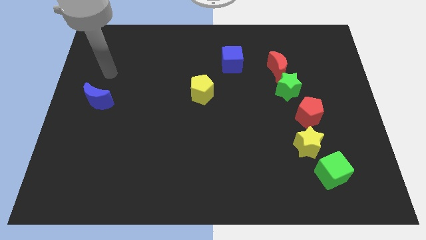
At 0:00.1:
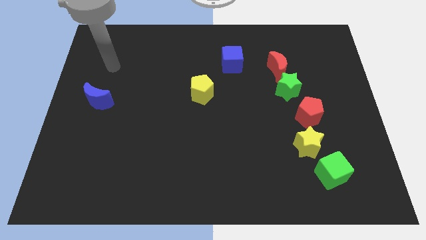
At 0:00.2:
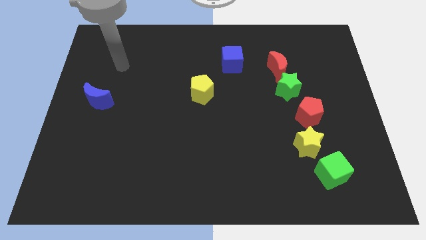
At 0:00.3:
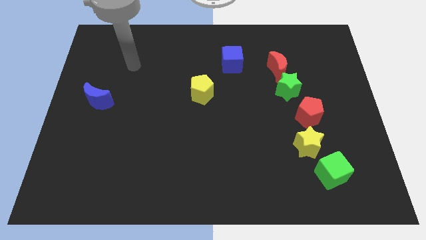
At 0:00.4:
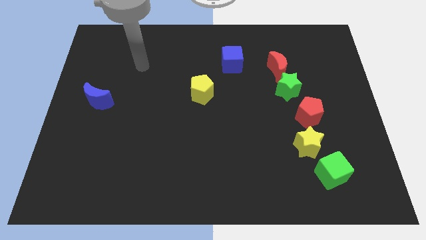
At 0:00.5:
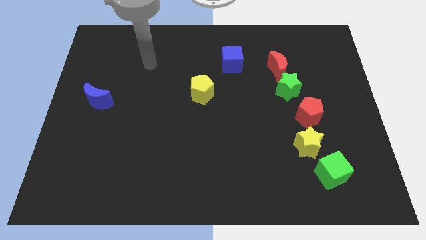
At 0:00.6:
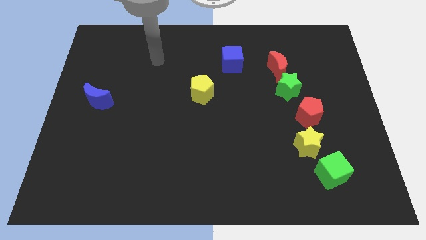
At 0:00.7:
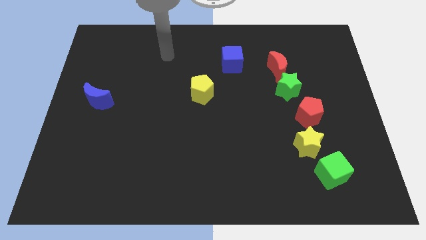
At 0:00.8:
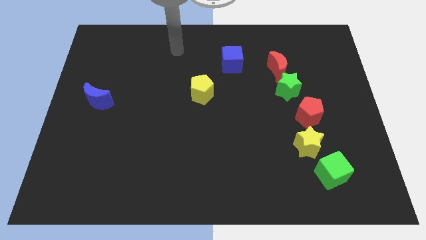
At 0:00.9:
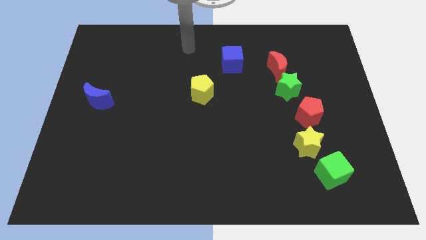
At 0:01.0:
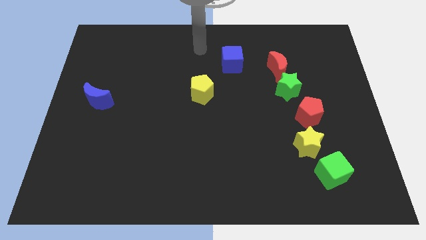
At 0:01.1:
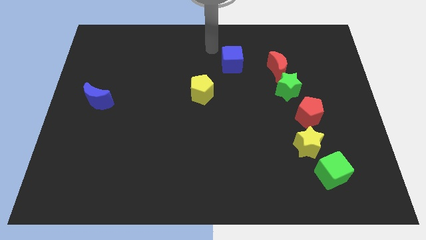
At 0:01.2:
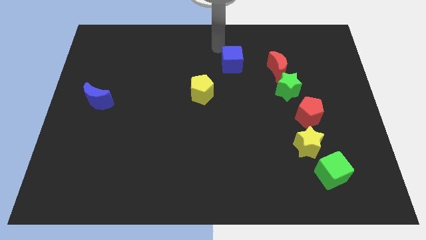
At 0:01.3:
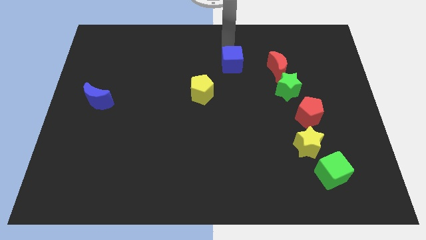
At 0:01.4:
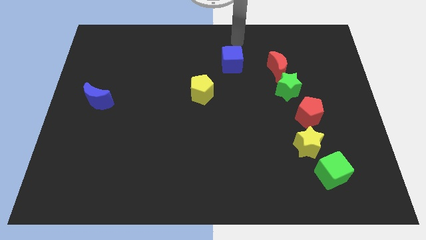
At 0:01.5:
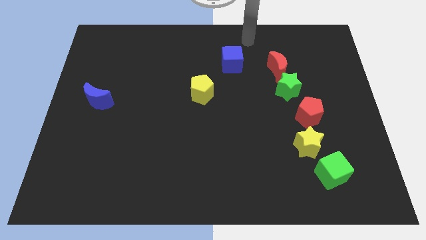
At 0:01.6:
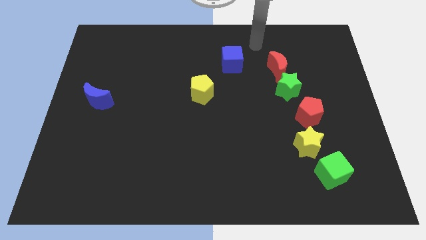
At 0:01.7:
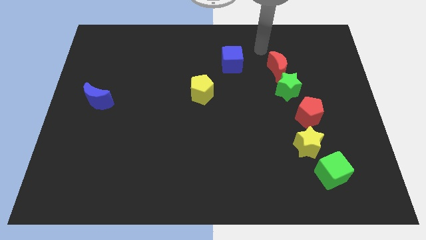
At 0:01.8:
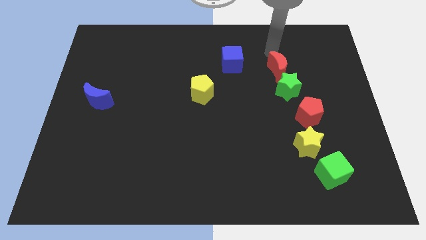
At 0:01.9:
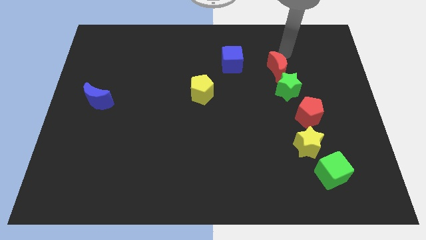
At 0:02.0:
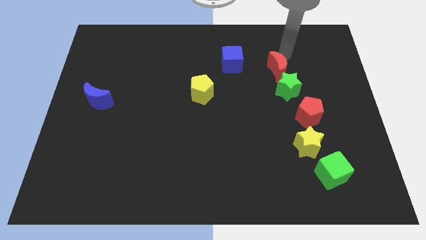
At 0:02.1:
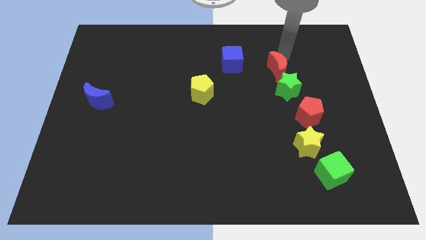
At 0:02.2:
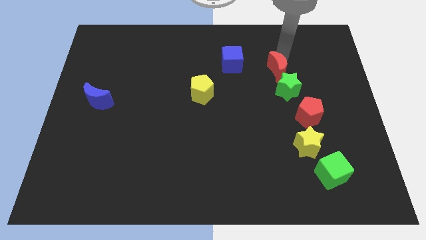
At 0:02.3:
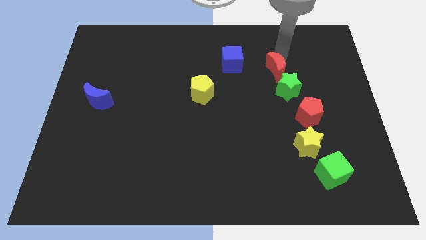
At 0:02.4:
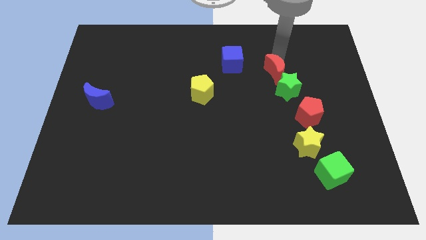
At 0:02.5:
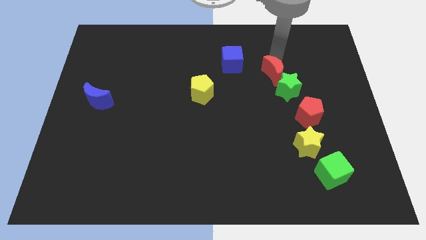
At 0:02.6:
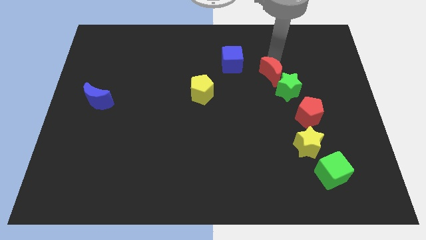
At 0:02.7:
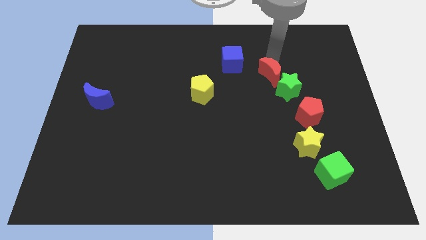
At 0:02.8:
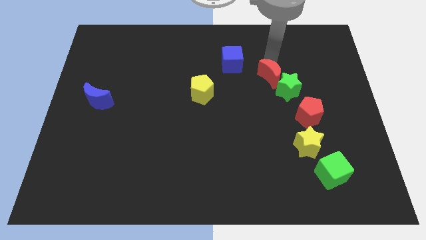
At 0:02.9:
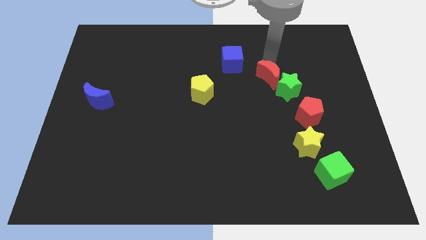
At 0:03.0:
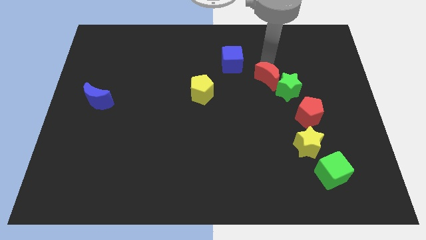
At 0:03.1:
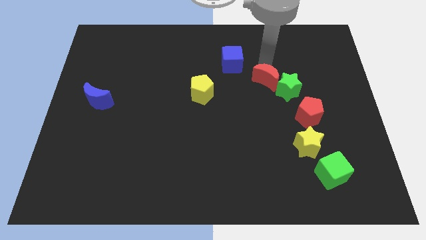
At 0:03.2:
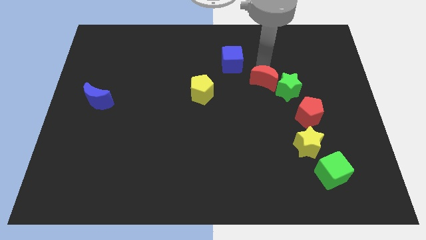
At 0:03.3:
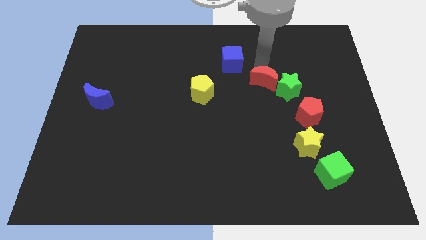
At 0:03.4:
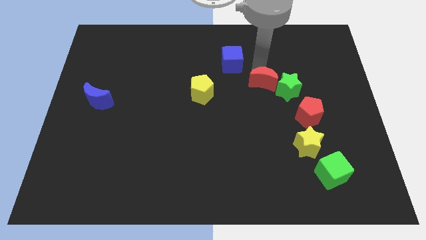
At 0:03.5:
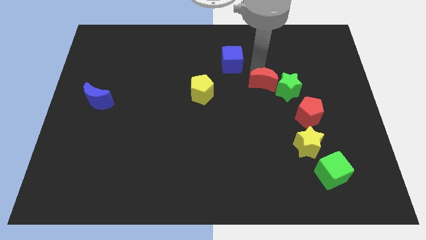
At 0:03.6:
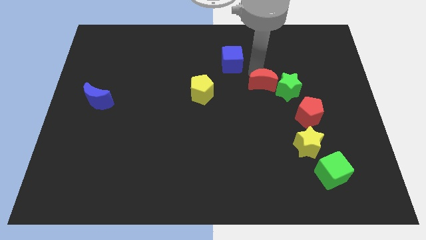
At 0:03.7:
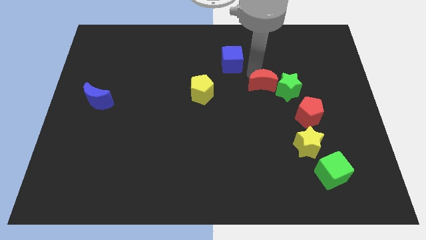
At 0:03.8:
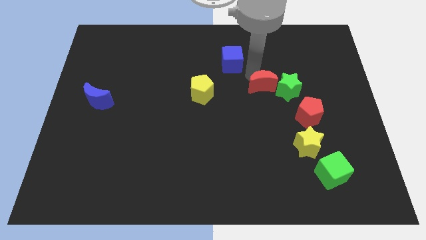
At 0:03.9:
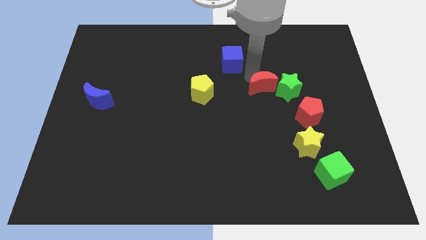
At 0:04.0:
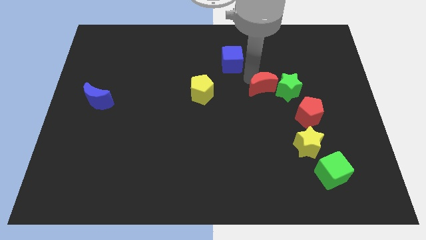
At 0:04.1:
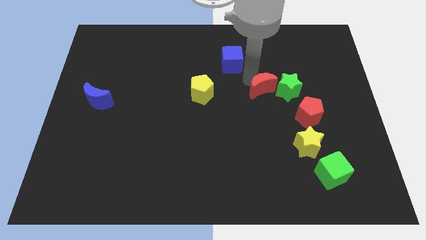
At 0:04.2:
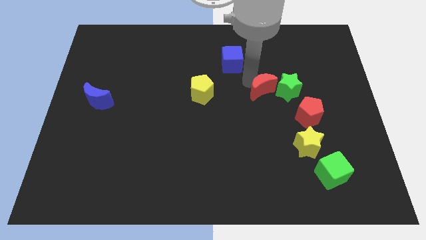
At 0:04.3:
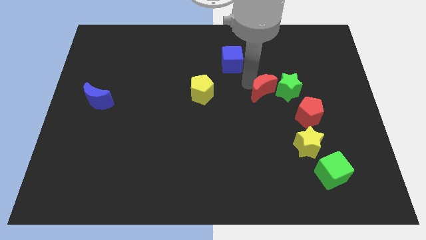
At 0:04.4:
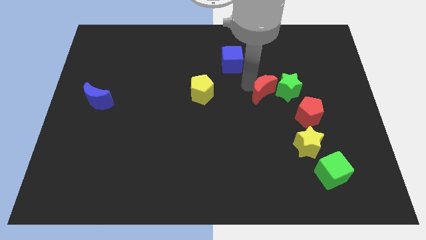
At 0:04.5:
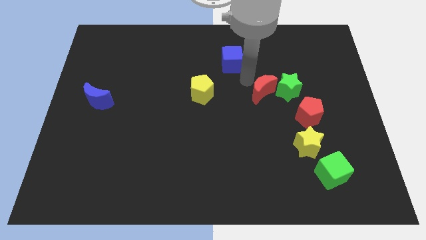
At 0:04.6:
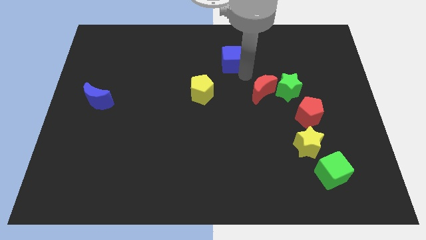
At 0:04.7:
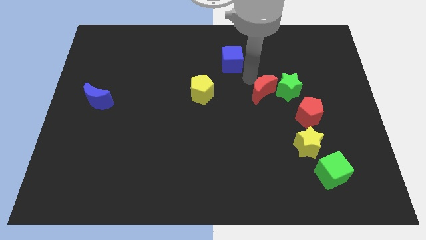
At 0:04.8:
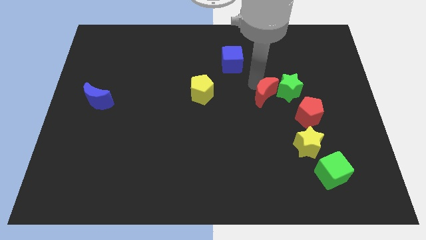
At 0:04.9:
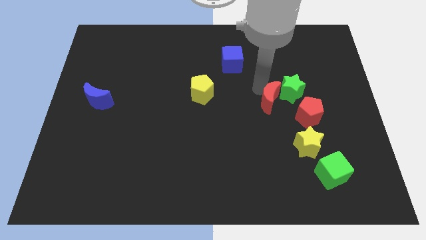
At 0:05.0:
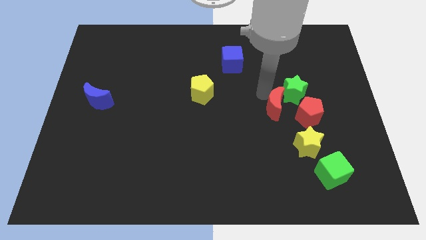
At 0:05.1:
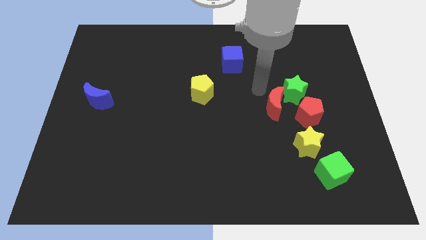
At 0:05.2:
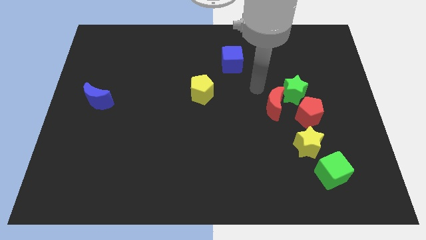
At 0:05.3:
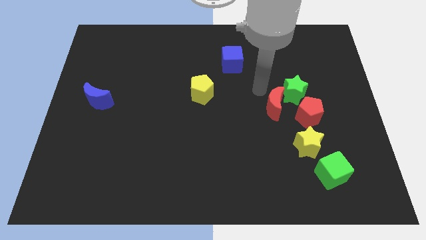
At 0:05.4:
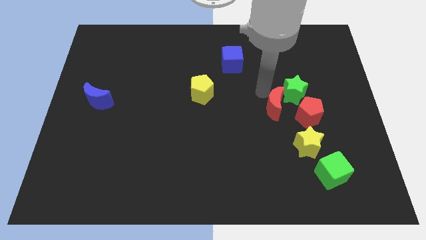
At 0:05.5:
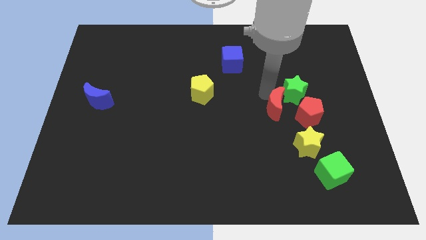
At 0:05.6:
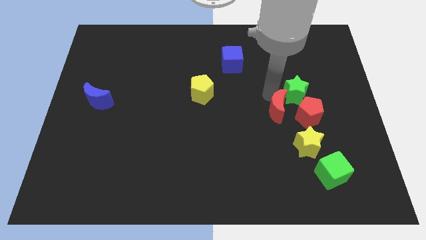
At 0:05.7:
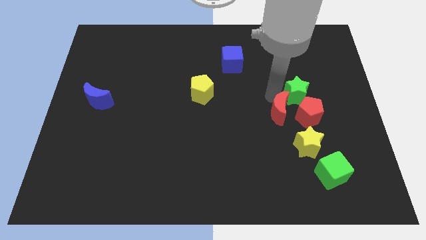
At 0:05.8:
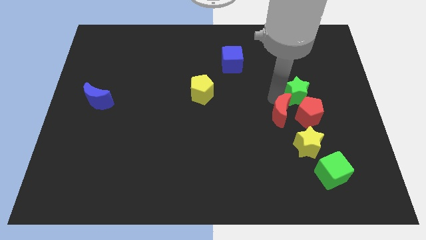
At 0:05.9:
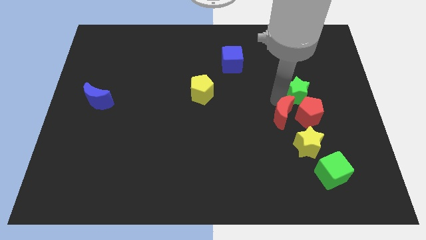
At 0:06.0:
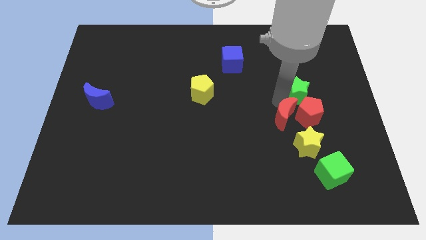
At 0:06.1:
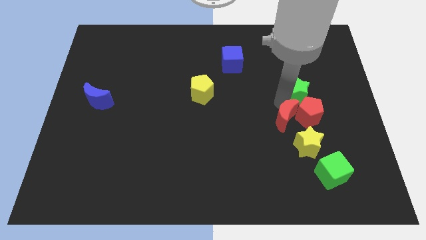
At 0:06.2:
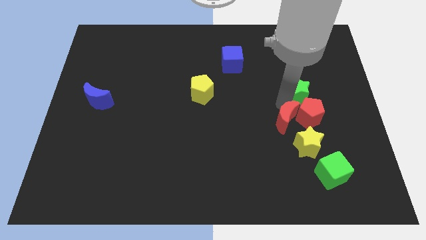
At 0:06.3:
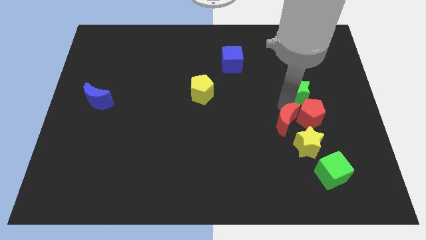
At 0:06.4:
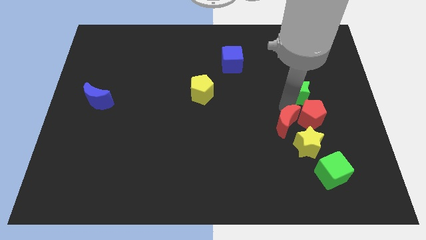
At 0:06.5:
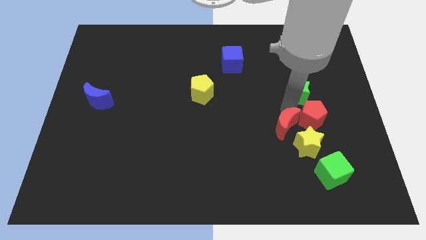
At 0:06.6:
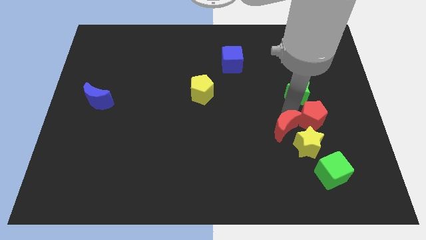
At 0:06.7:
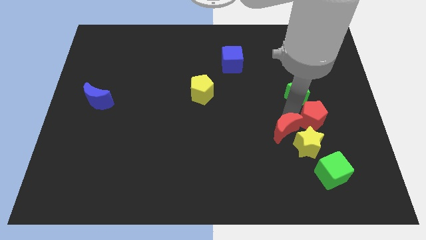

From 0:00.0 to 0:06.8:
move the red moon towards the yellow star
